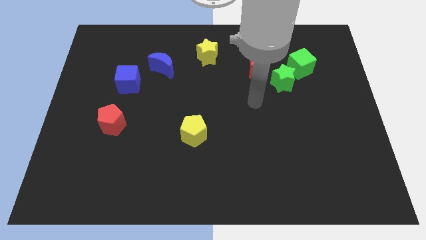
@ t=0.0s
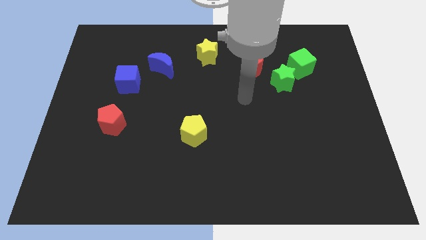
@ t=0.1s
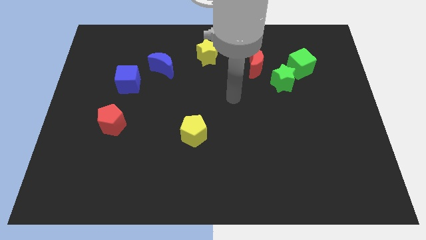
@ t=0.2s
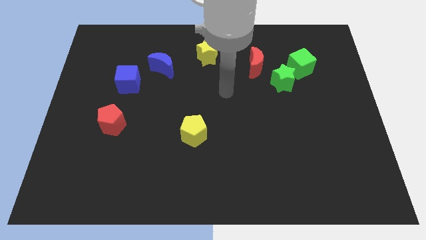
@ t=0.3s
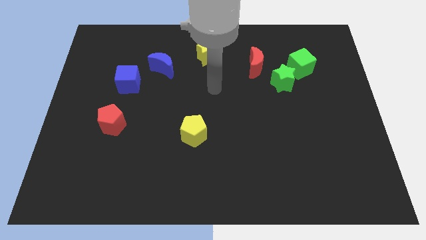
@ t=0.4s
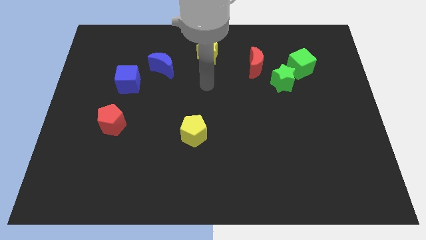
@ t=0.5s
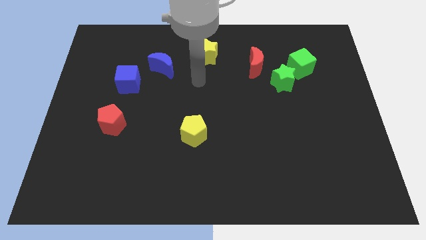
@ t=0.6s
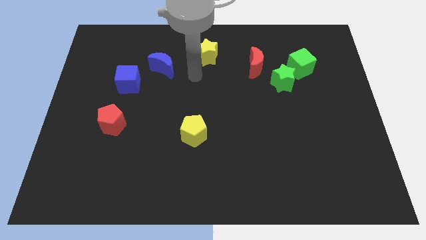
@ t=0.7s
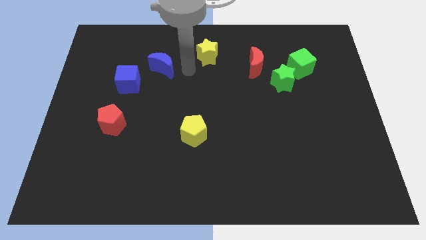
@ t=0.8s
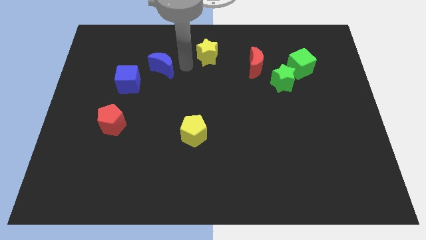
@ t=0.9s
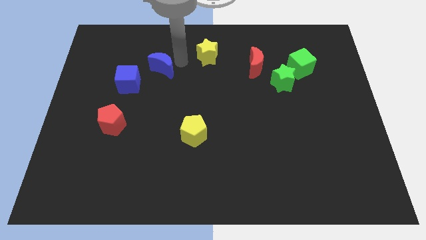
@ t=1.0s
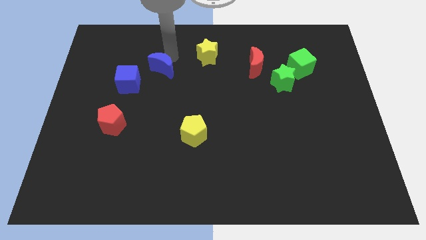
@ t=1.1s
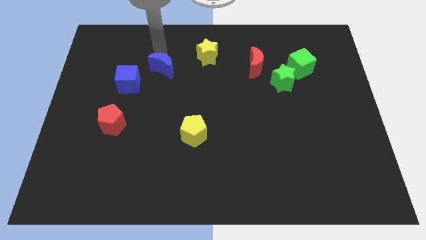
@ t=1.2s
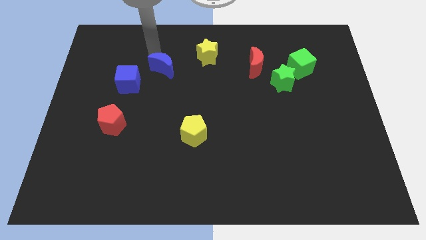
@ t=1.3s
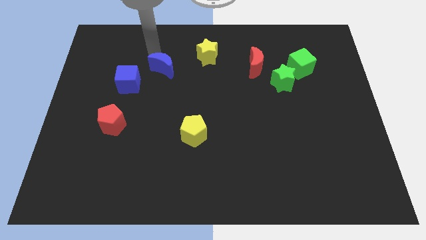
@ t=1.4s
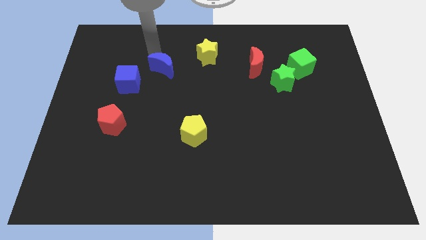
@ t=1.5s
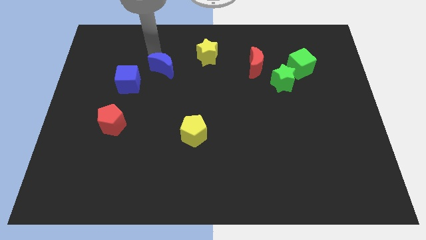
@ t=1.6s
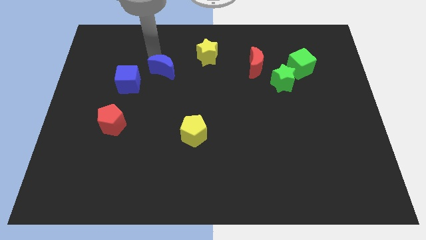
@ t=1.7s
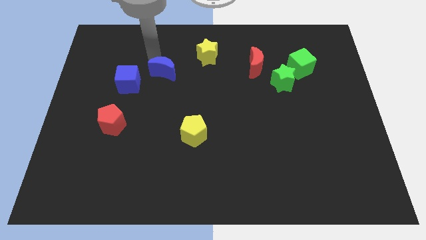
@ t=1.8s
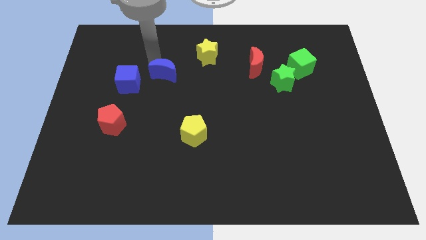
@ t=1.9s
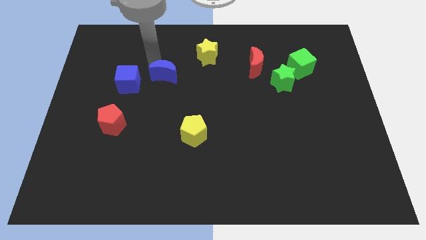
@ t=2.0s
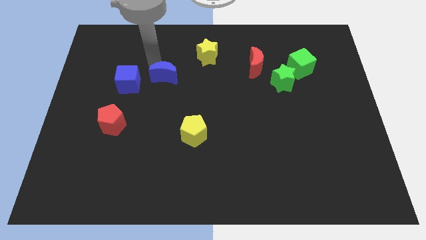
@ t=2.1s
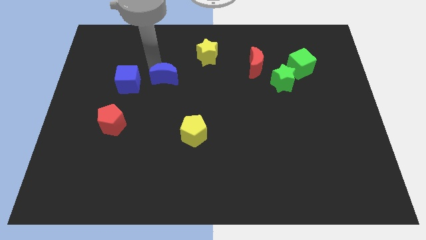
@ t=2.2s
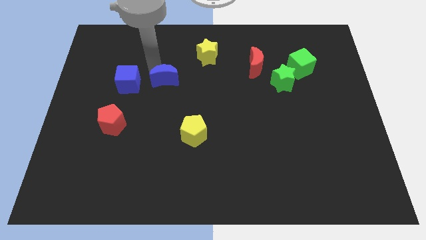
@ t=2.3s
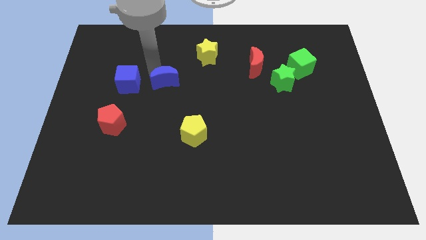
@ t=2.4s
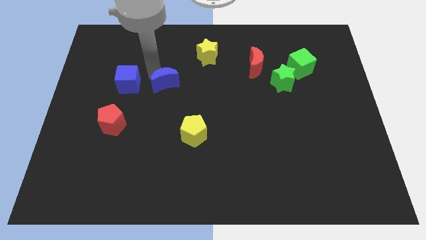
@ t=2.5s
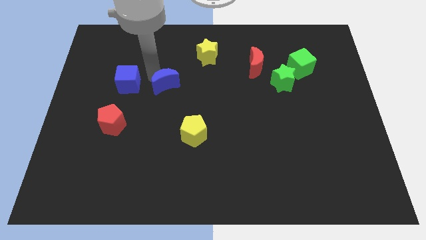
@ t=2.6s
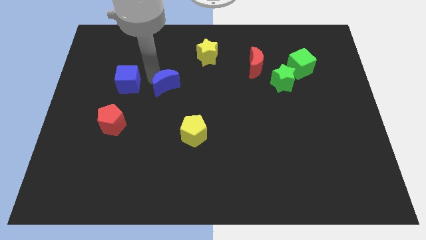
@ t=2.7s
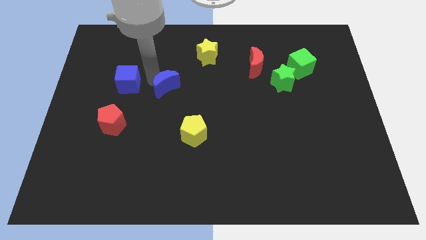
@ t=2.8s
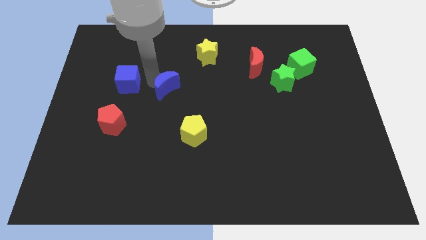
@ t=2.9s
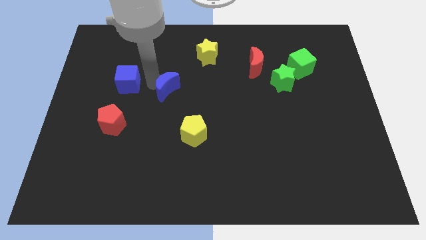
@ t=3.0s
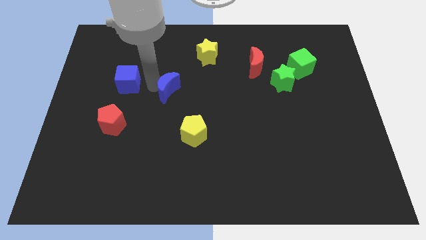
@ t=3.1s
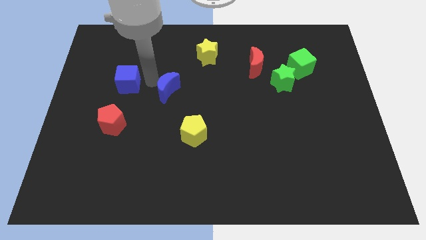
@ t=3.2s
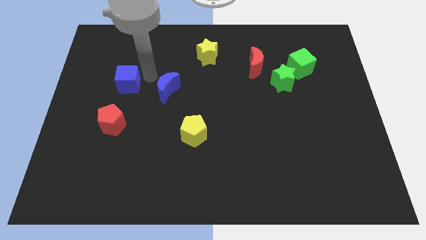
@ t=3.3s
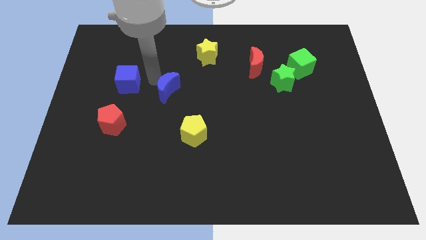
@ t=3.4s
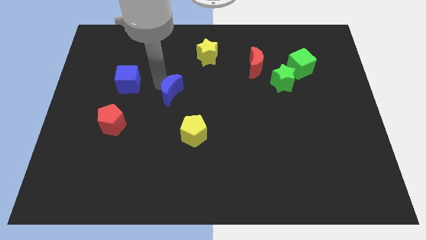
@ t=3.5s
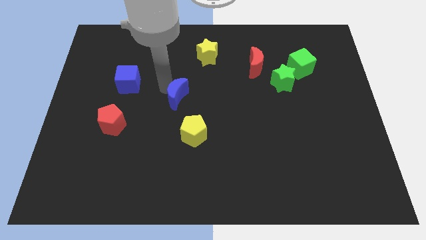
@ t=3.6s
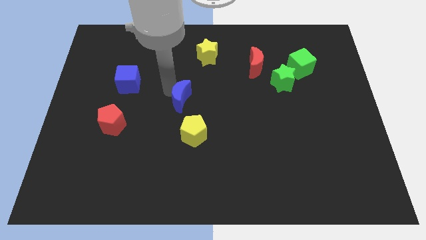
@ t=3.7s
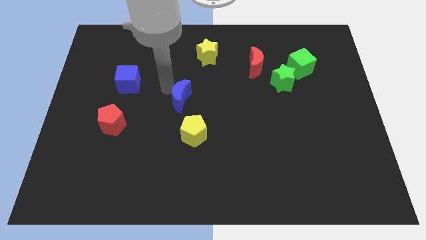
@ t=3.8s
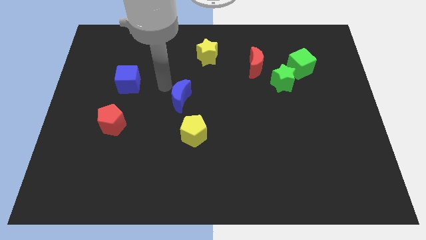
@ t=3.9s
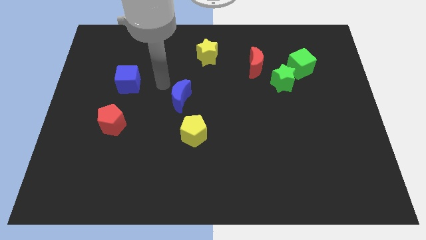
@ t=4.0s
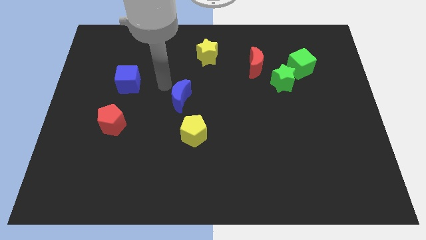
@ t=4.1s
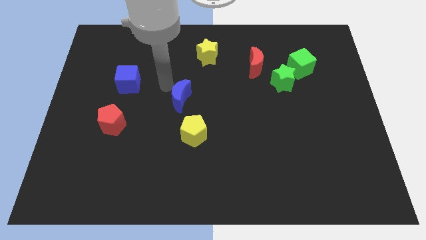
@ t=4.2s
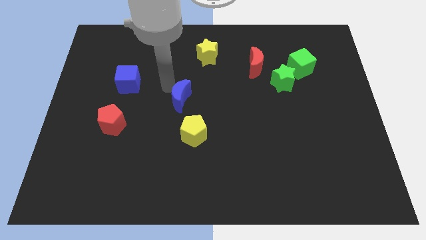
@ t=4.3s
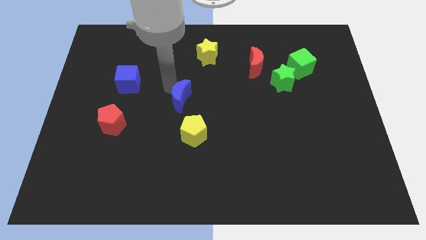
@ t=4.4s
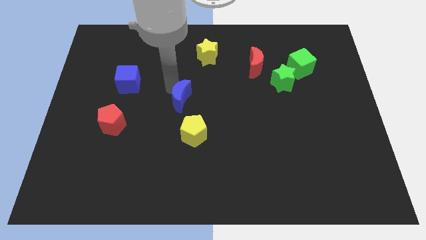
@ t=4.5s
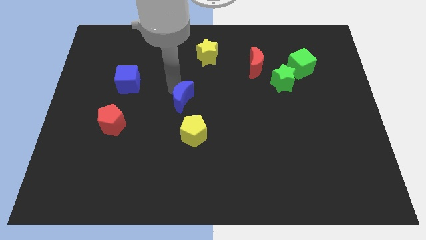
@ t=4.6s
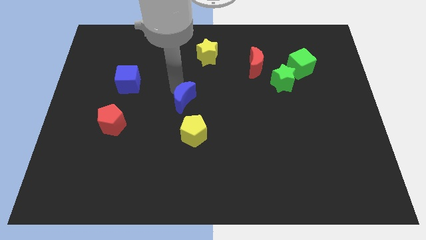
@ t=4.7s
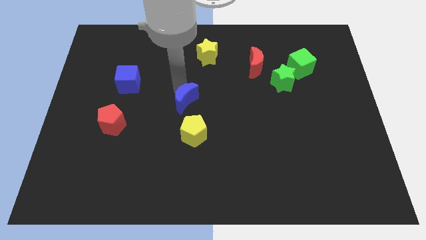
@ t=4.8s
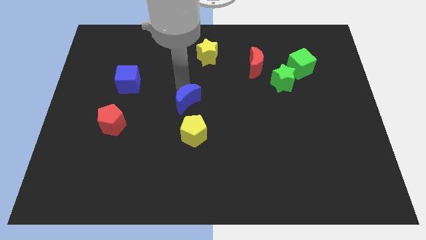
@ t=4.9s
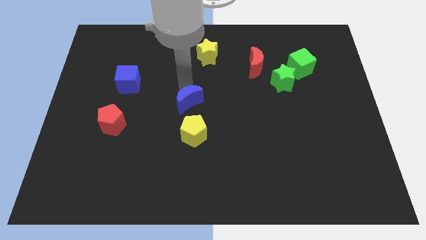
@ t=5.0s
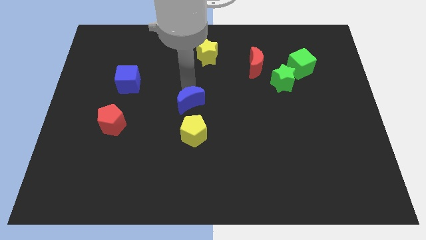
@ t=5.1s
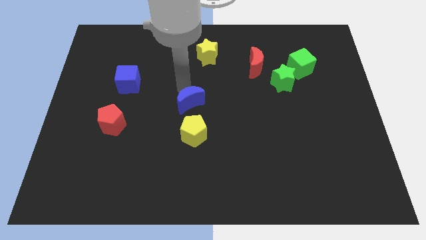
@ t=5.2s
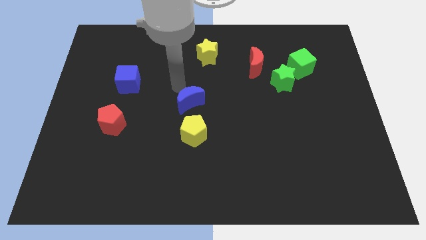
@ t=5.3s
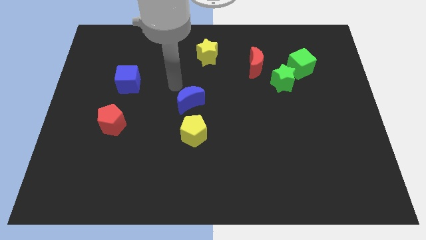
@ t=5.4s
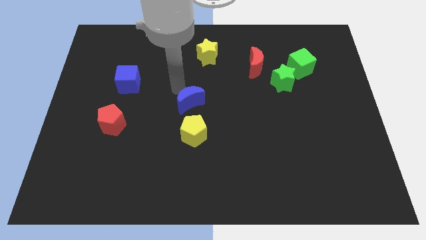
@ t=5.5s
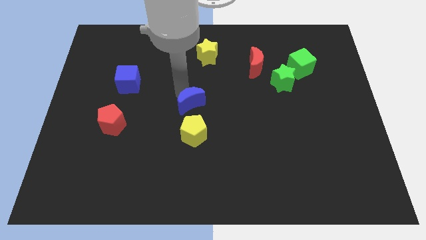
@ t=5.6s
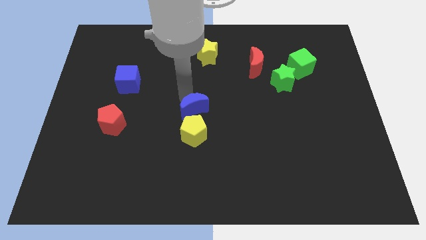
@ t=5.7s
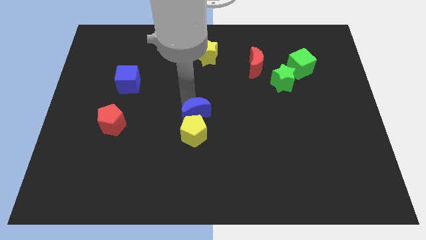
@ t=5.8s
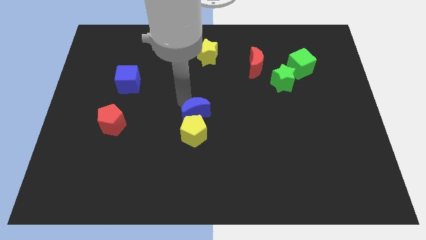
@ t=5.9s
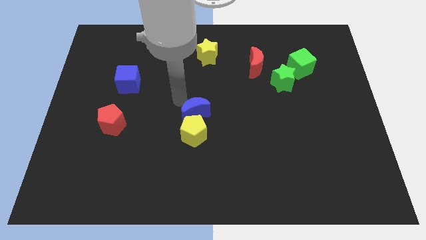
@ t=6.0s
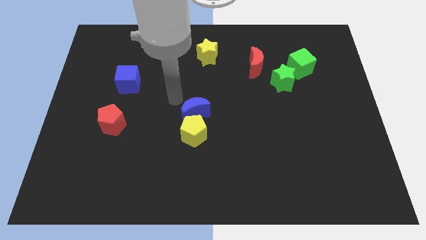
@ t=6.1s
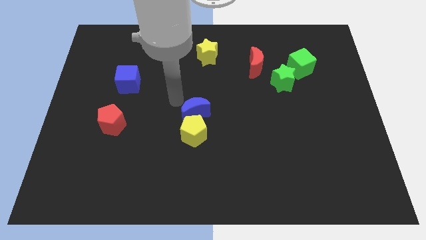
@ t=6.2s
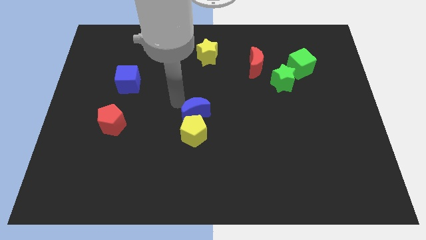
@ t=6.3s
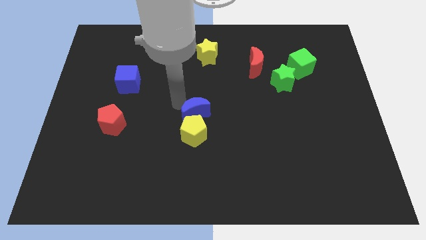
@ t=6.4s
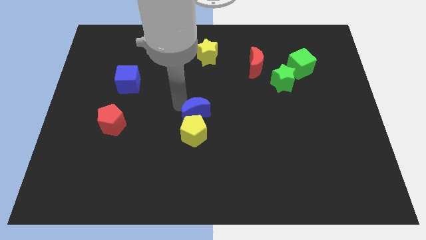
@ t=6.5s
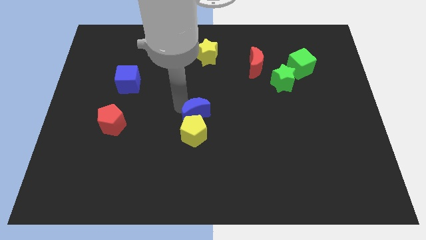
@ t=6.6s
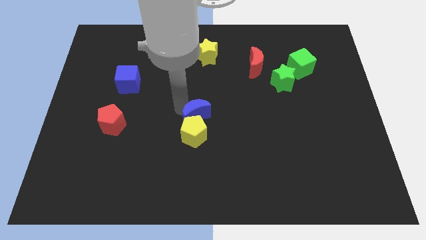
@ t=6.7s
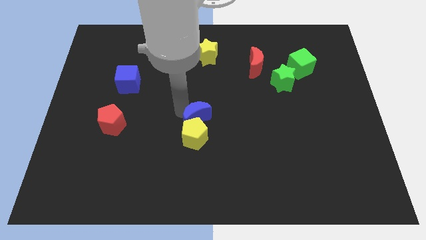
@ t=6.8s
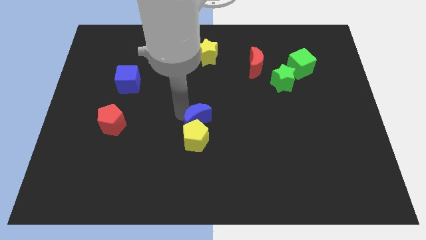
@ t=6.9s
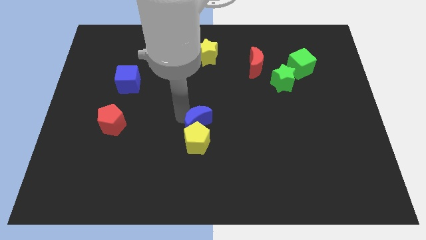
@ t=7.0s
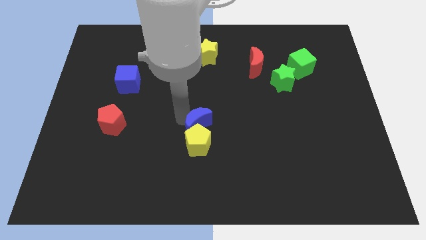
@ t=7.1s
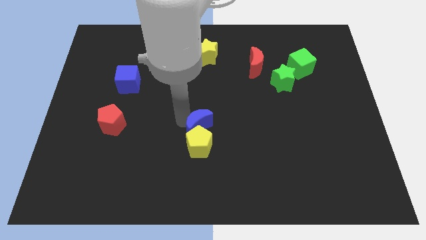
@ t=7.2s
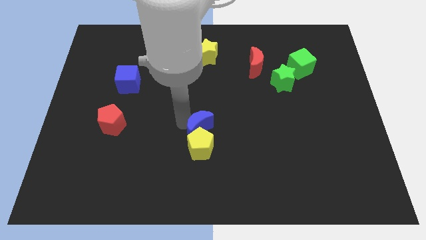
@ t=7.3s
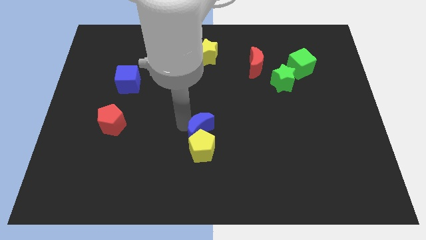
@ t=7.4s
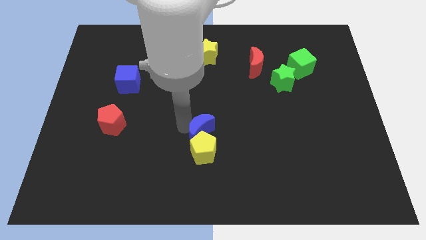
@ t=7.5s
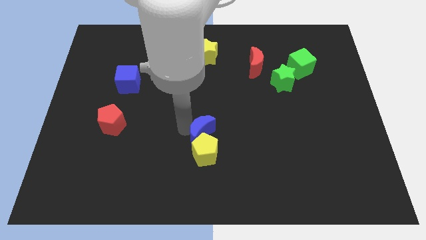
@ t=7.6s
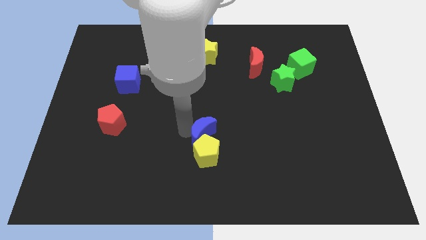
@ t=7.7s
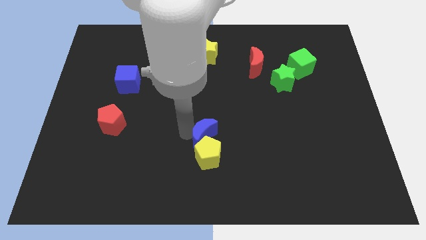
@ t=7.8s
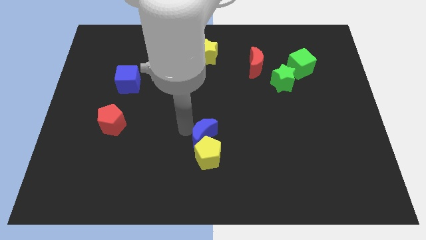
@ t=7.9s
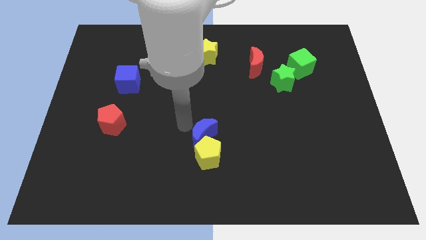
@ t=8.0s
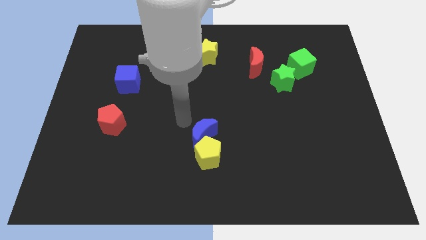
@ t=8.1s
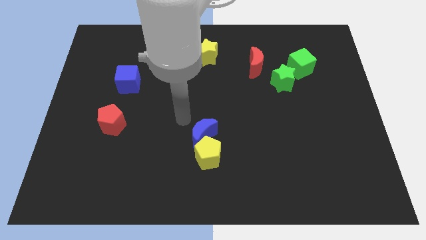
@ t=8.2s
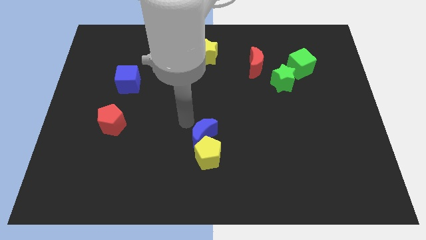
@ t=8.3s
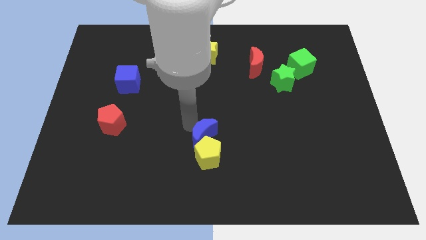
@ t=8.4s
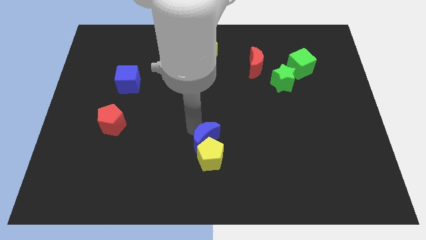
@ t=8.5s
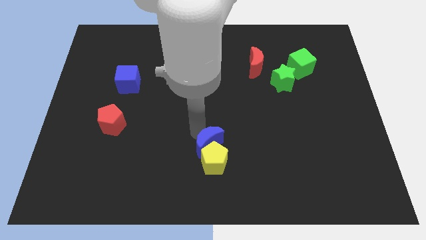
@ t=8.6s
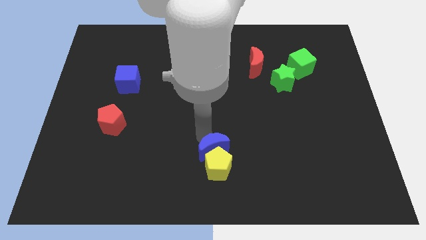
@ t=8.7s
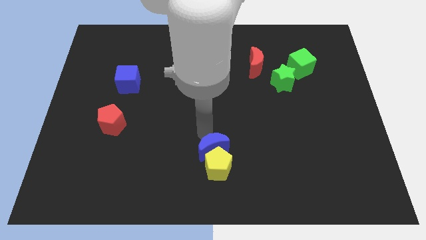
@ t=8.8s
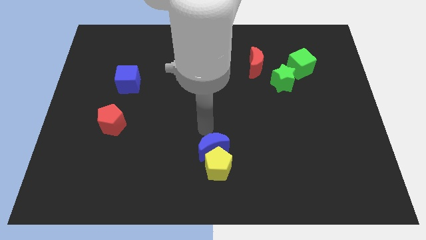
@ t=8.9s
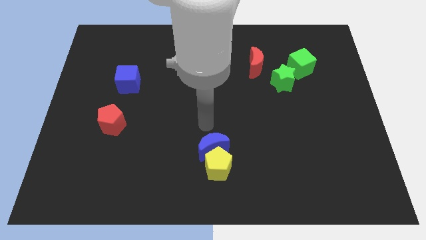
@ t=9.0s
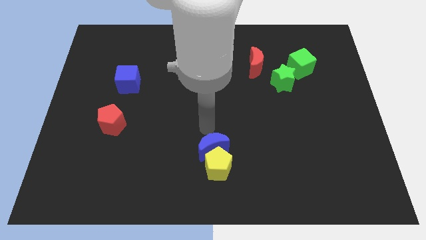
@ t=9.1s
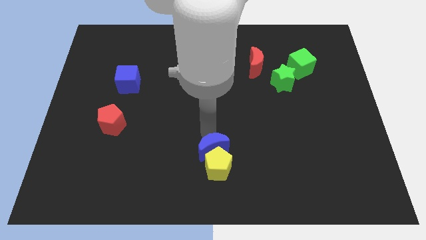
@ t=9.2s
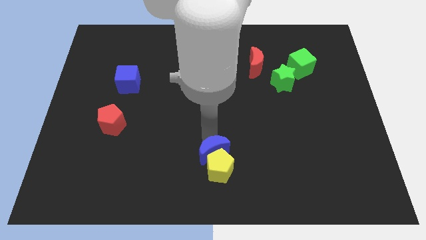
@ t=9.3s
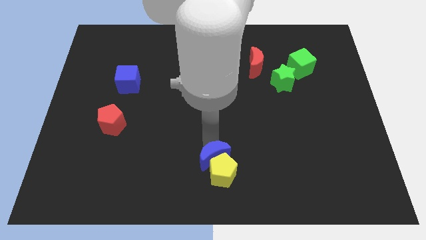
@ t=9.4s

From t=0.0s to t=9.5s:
slide the blue moon to the bottom
